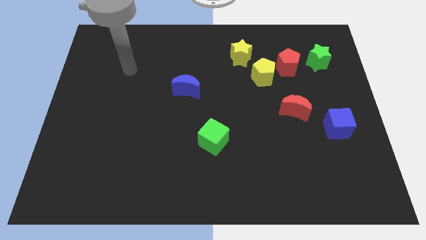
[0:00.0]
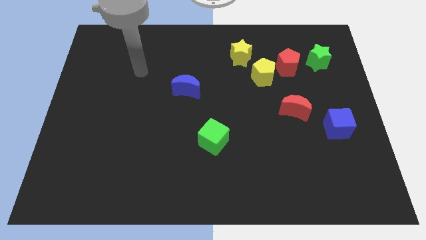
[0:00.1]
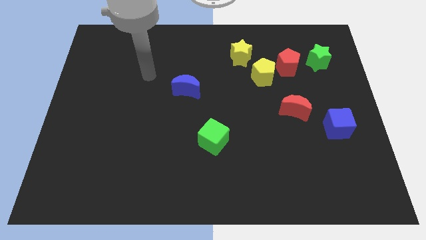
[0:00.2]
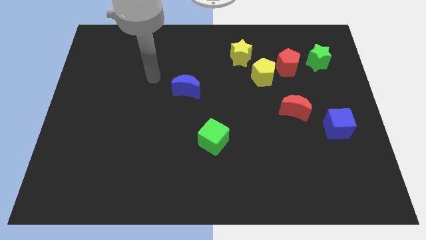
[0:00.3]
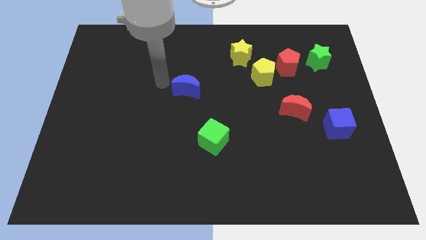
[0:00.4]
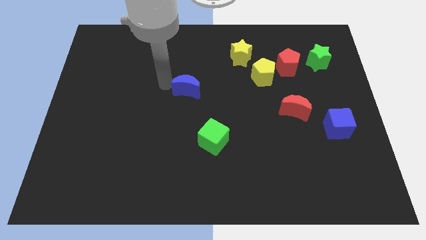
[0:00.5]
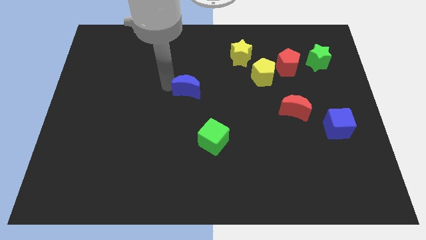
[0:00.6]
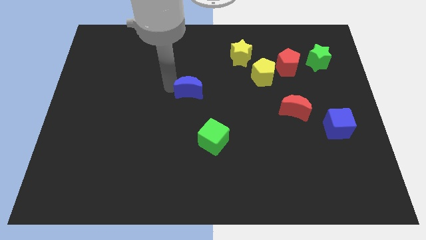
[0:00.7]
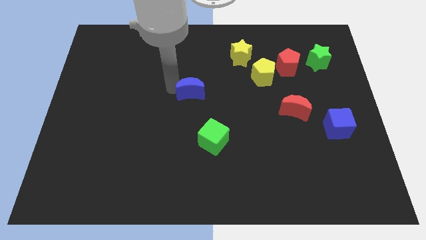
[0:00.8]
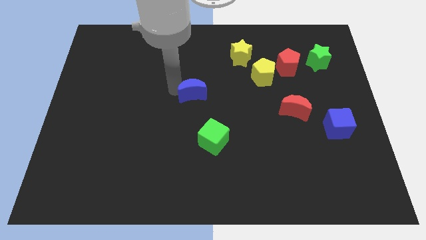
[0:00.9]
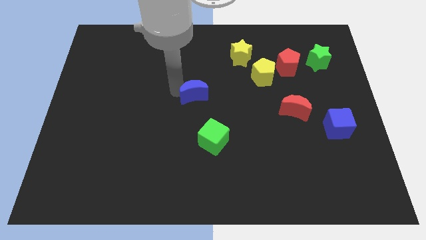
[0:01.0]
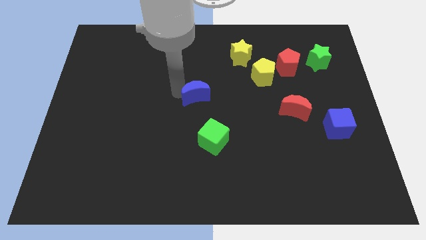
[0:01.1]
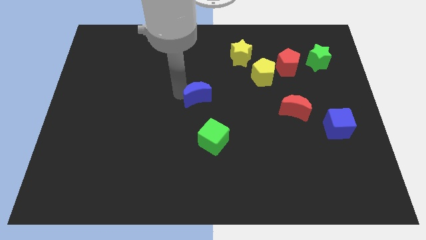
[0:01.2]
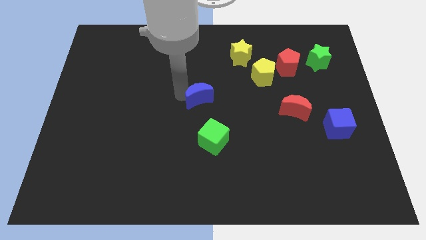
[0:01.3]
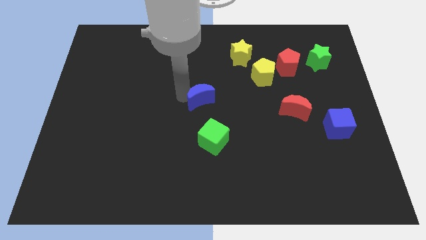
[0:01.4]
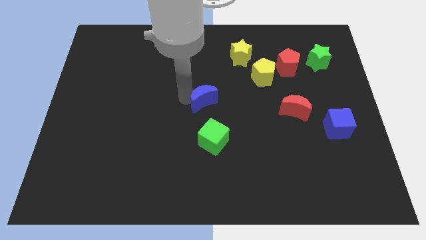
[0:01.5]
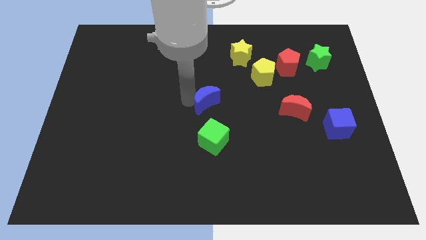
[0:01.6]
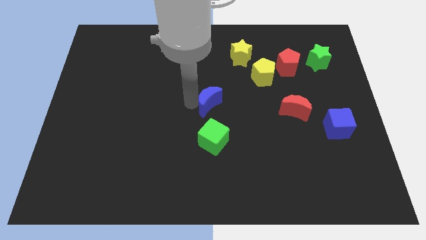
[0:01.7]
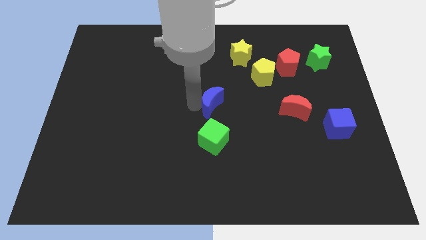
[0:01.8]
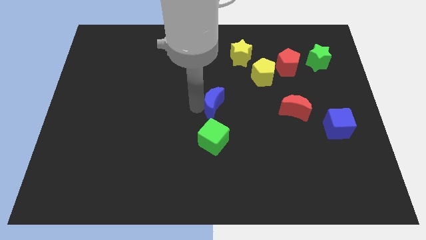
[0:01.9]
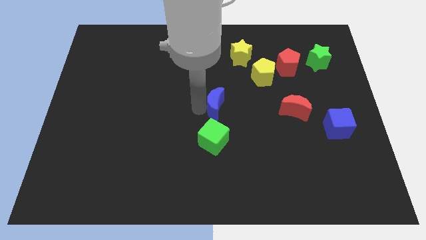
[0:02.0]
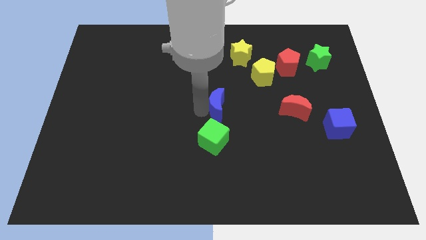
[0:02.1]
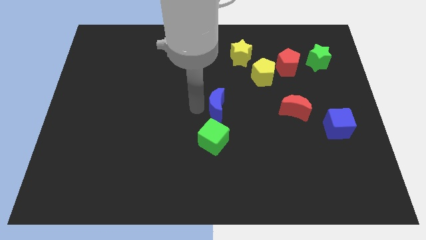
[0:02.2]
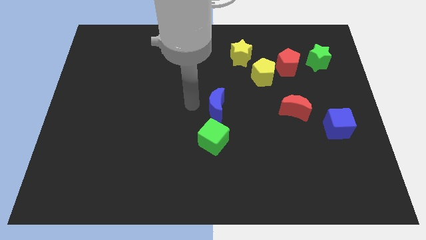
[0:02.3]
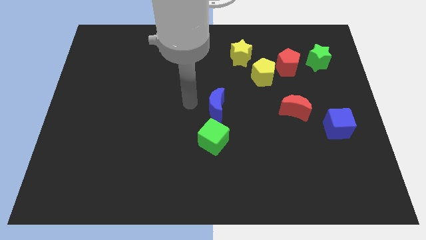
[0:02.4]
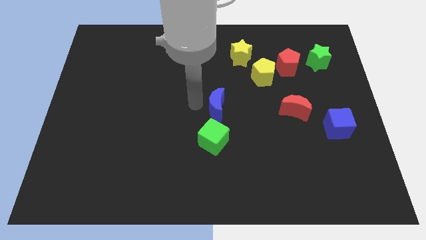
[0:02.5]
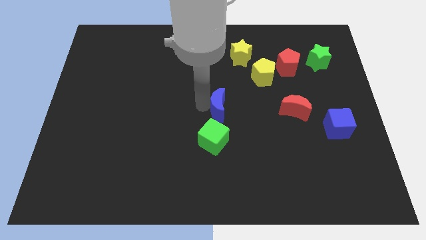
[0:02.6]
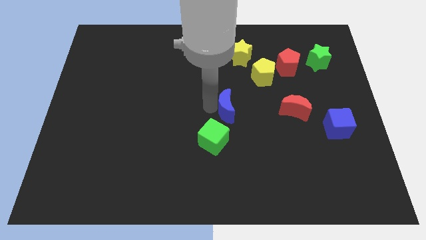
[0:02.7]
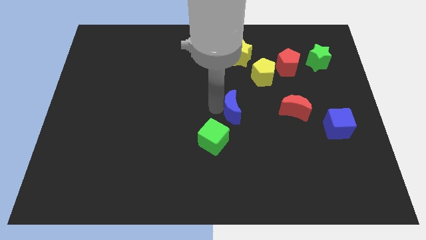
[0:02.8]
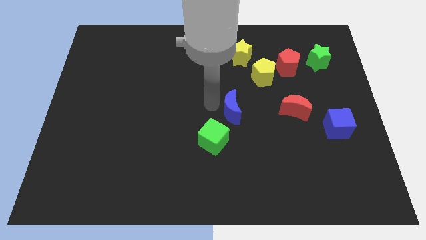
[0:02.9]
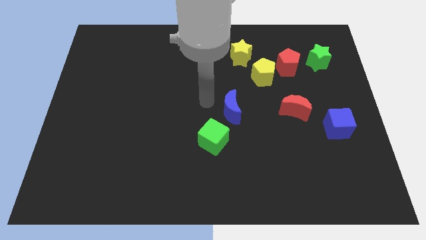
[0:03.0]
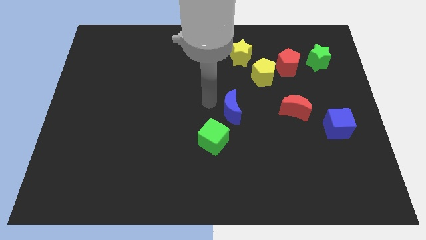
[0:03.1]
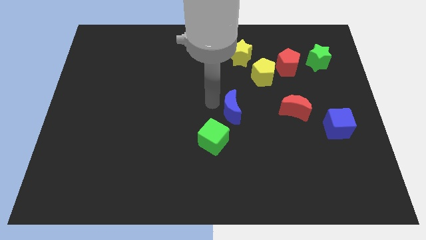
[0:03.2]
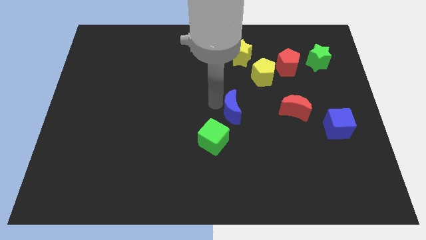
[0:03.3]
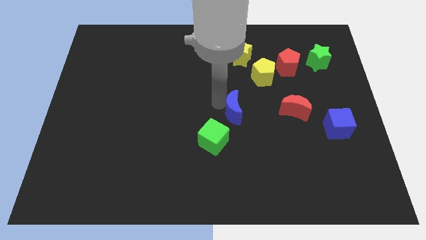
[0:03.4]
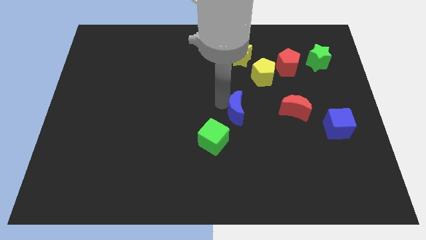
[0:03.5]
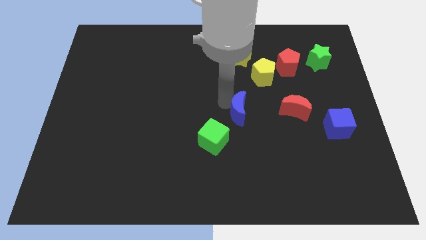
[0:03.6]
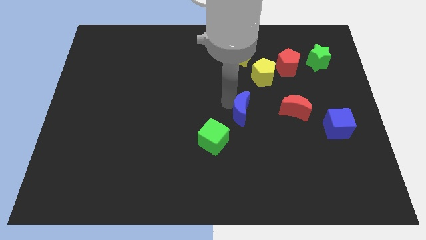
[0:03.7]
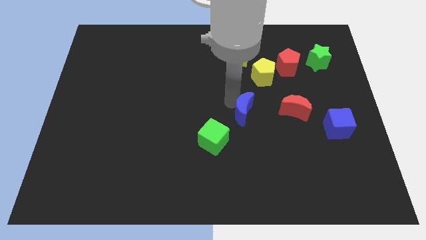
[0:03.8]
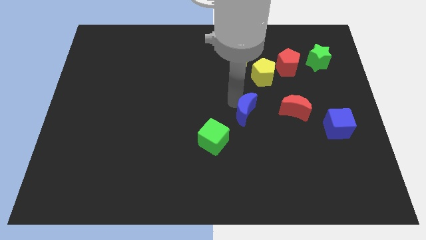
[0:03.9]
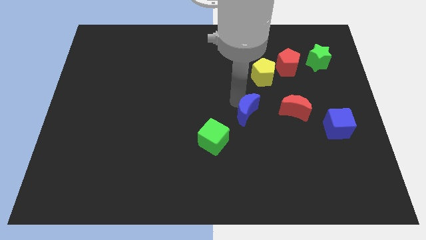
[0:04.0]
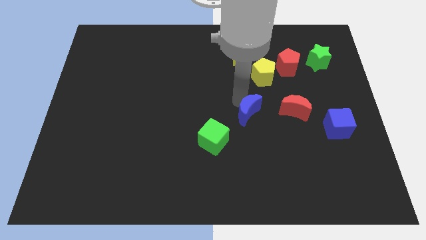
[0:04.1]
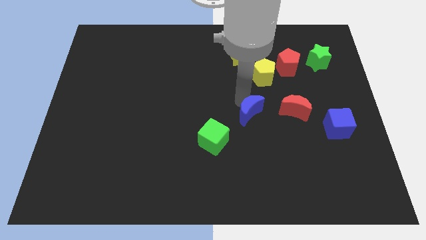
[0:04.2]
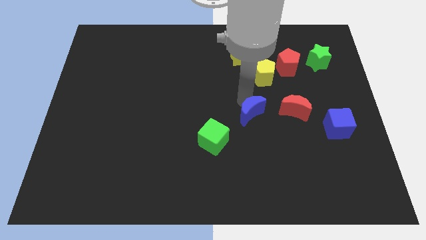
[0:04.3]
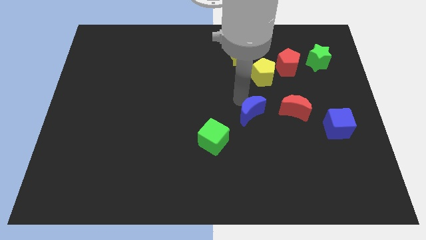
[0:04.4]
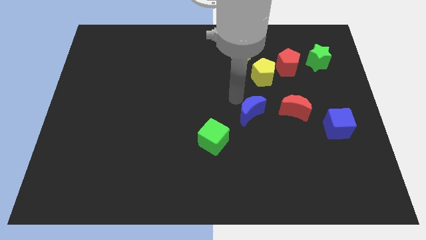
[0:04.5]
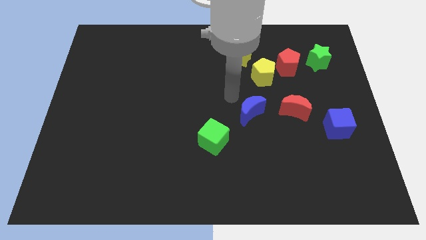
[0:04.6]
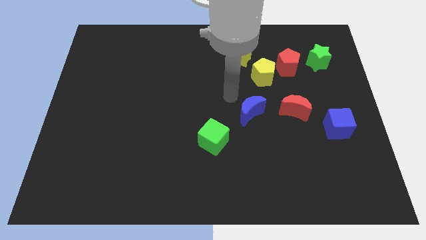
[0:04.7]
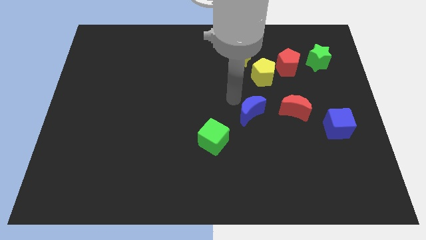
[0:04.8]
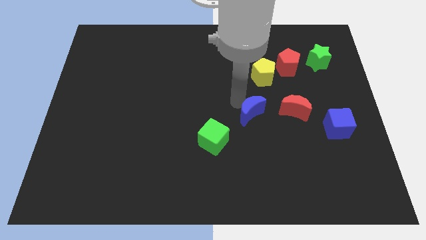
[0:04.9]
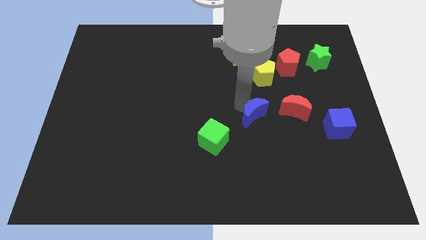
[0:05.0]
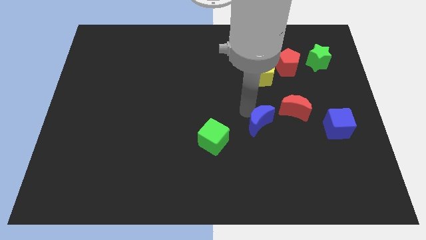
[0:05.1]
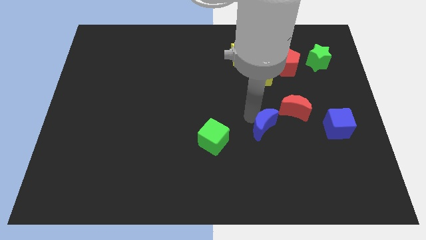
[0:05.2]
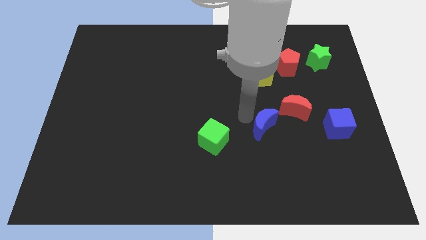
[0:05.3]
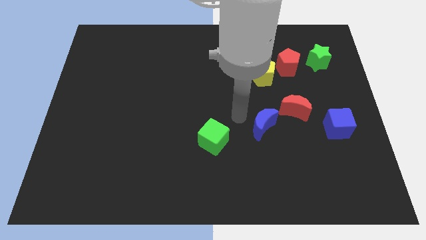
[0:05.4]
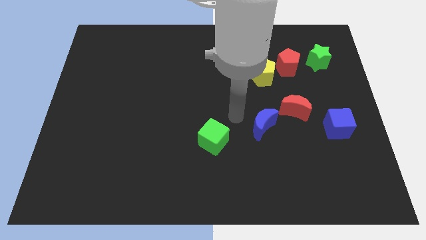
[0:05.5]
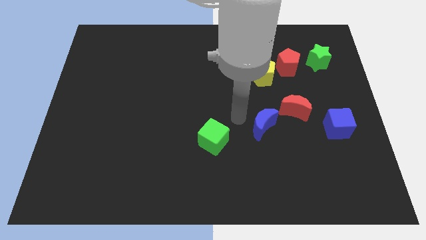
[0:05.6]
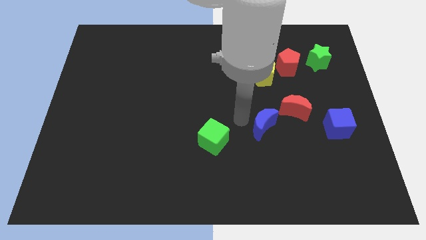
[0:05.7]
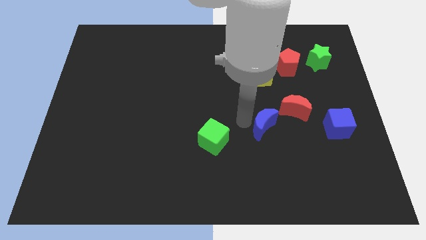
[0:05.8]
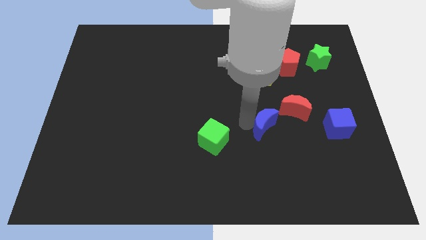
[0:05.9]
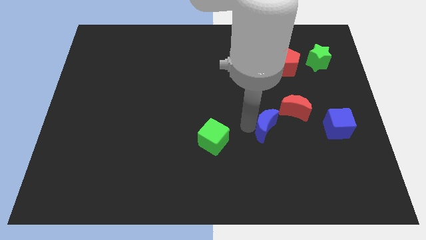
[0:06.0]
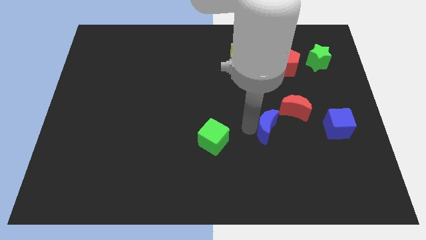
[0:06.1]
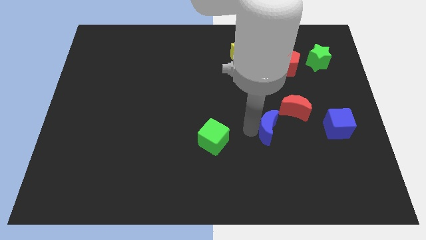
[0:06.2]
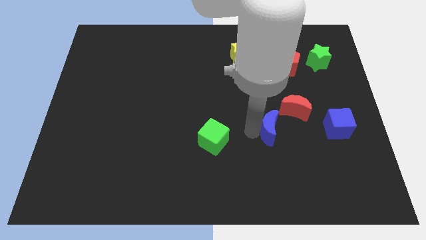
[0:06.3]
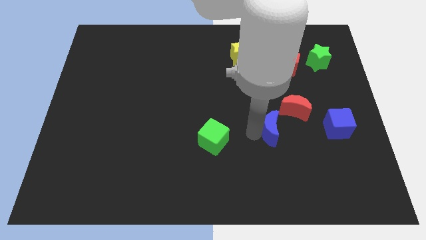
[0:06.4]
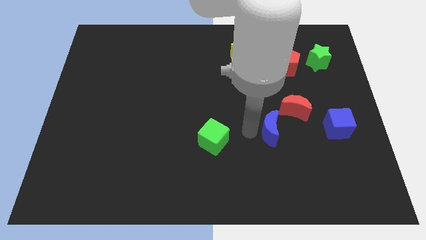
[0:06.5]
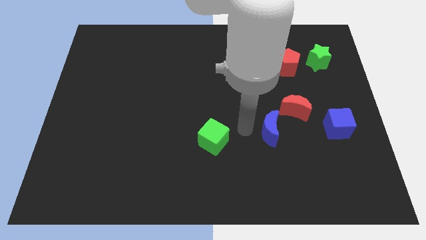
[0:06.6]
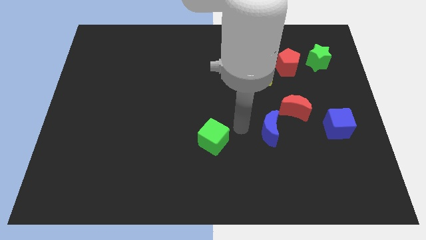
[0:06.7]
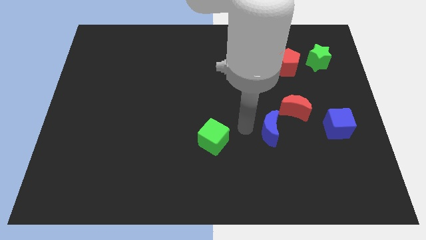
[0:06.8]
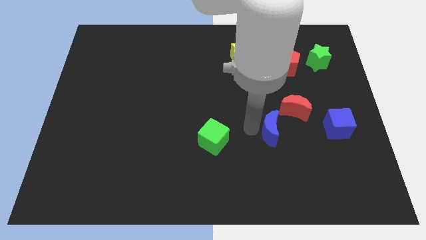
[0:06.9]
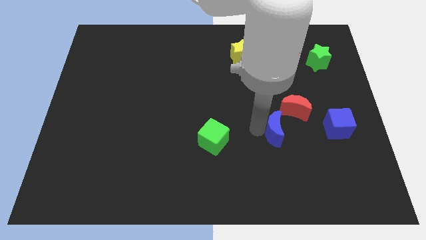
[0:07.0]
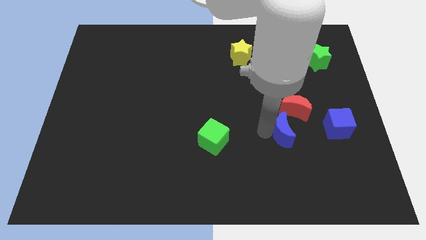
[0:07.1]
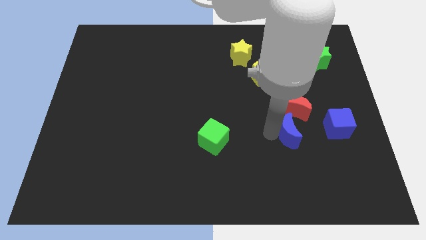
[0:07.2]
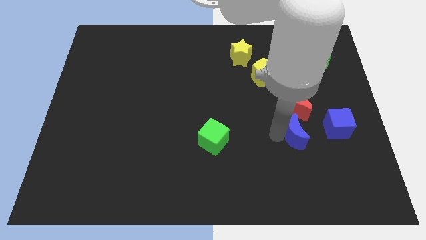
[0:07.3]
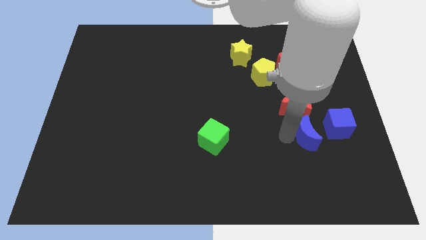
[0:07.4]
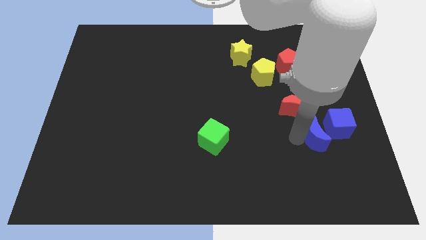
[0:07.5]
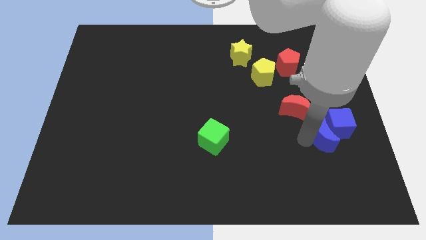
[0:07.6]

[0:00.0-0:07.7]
put the blue moon close to the blue cube

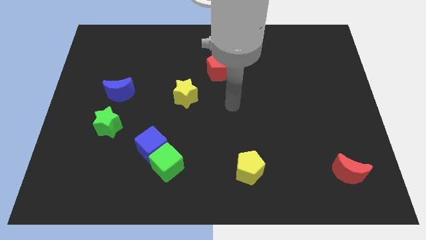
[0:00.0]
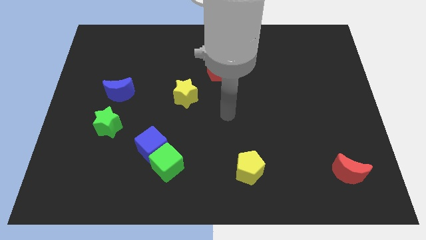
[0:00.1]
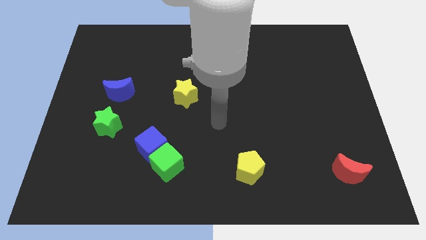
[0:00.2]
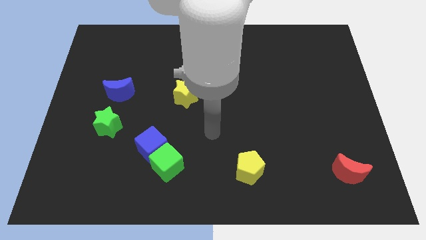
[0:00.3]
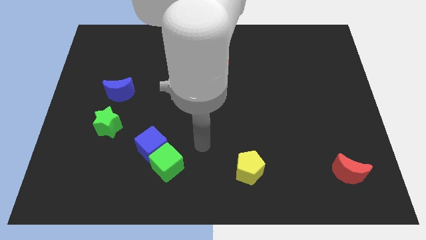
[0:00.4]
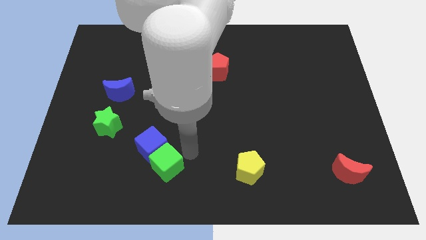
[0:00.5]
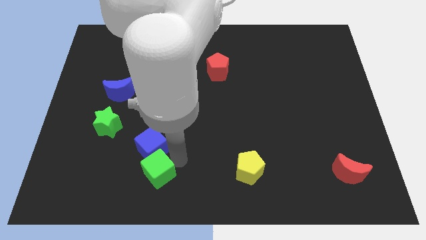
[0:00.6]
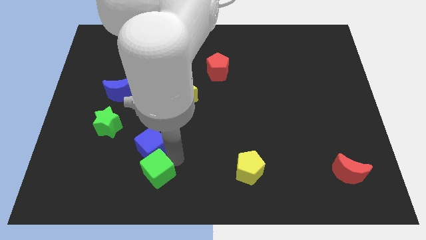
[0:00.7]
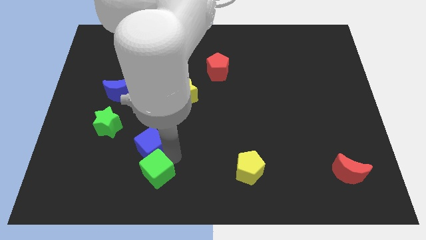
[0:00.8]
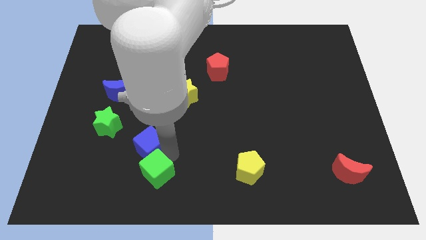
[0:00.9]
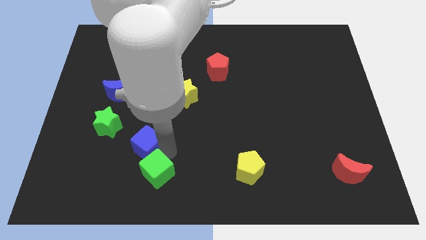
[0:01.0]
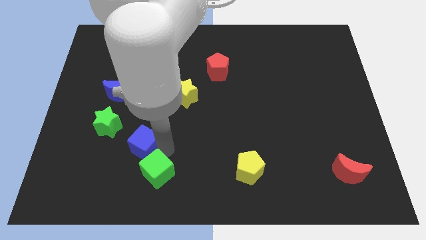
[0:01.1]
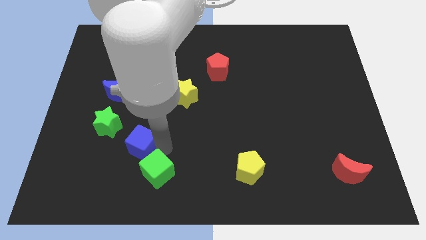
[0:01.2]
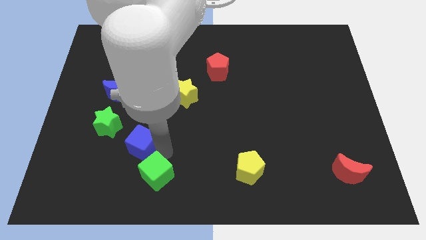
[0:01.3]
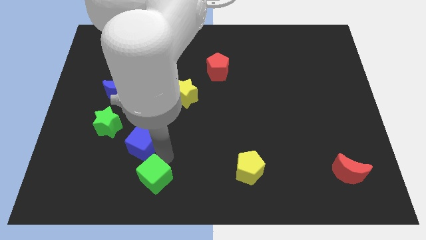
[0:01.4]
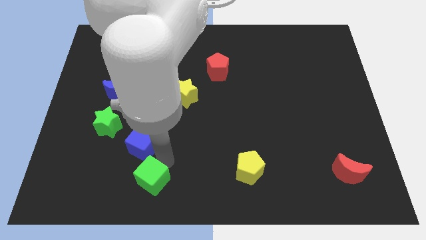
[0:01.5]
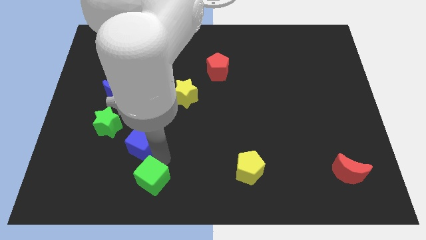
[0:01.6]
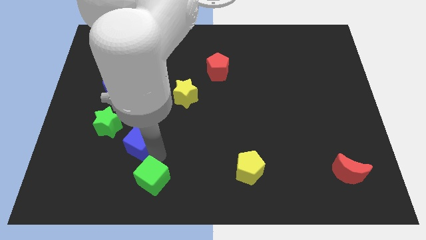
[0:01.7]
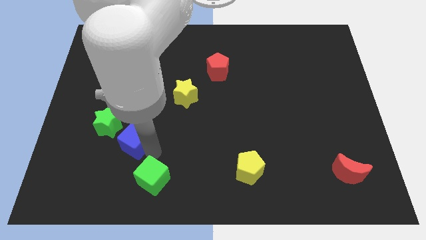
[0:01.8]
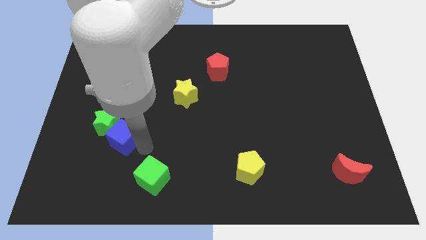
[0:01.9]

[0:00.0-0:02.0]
slide the blue cube towards the green star
